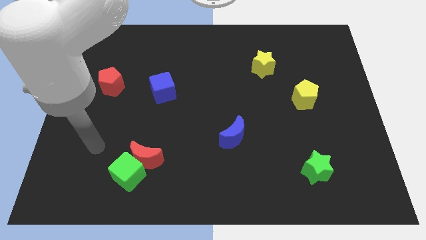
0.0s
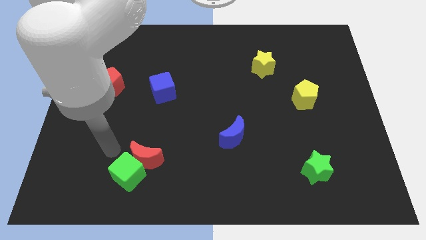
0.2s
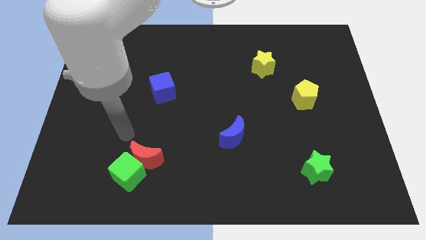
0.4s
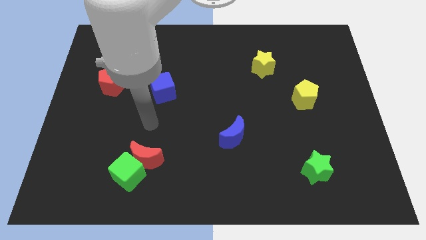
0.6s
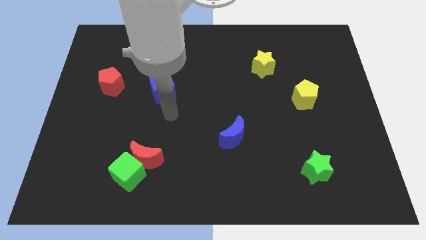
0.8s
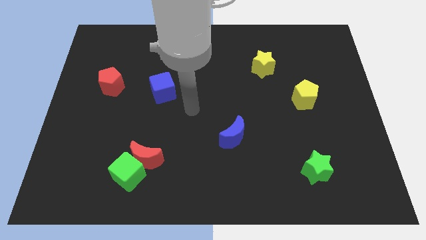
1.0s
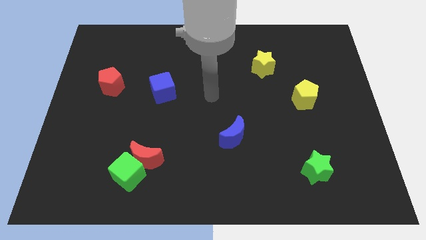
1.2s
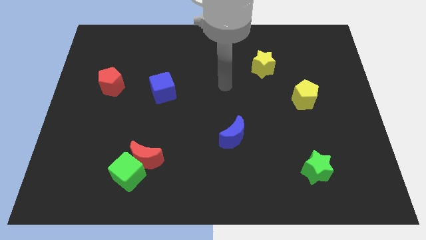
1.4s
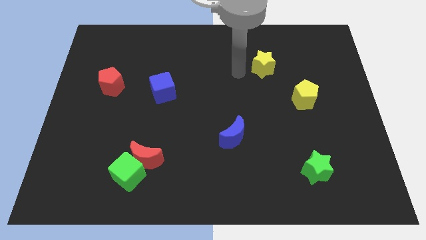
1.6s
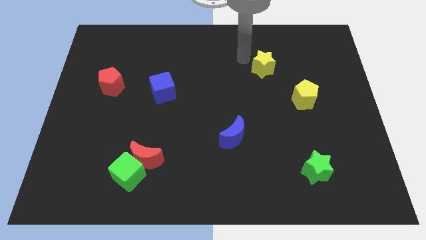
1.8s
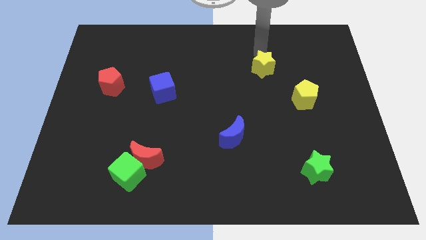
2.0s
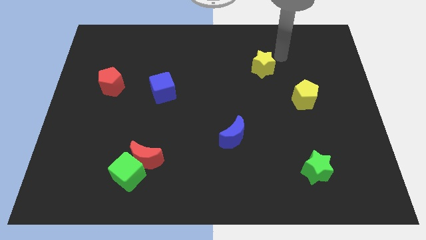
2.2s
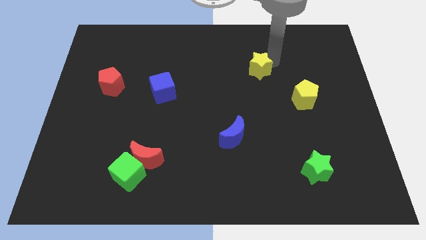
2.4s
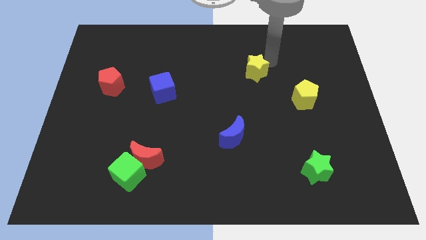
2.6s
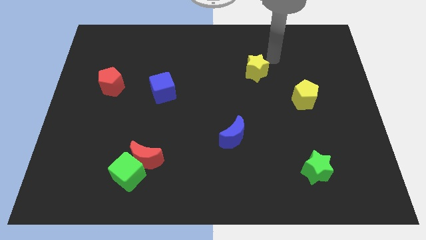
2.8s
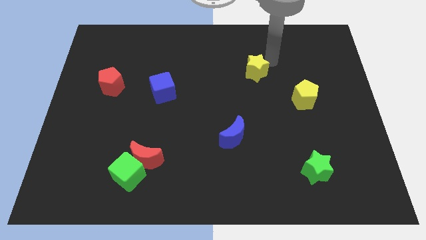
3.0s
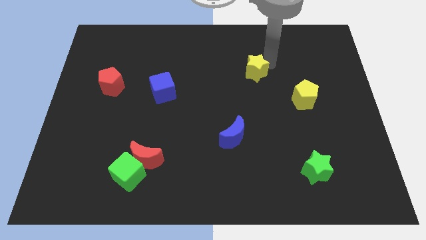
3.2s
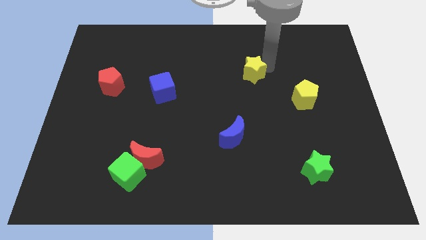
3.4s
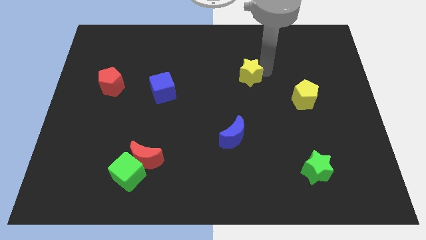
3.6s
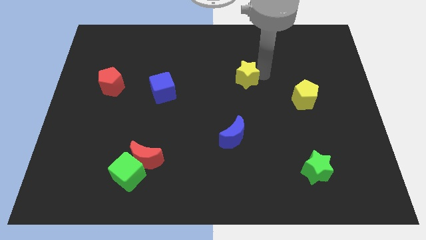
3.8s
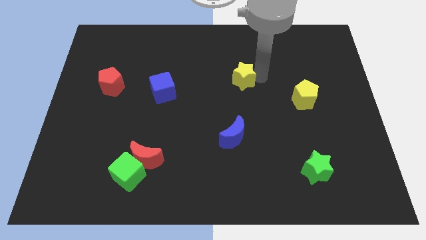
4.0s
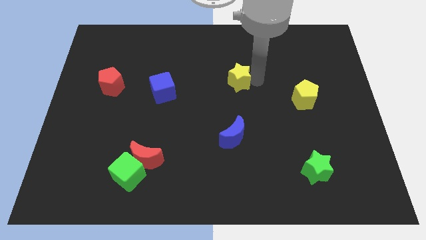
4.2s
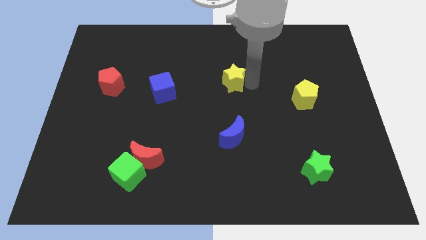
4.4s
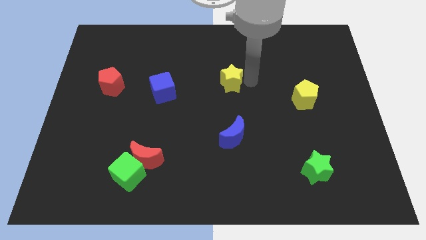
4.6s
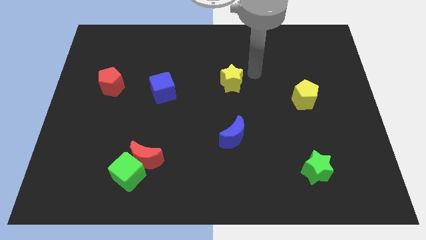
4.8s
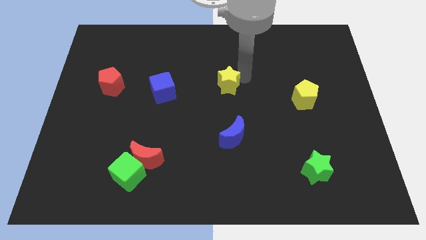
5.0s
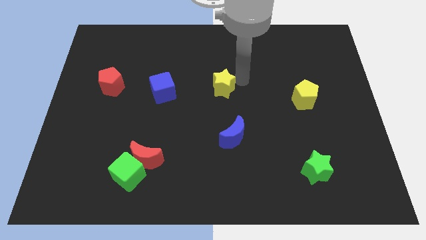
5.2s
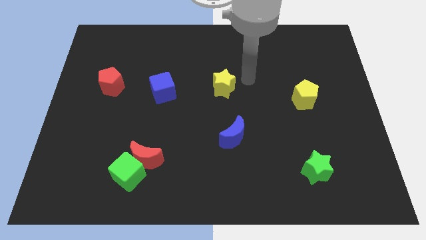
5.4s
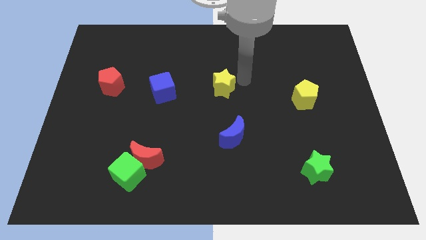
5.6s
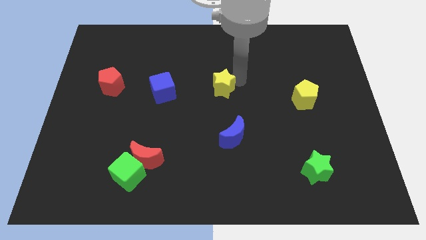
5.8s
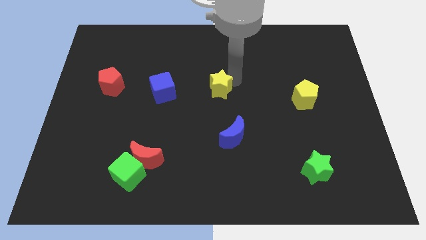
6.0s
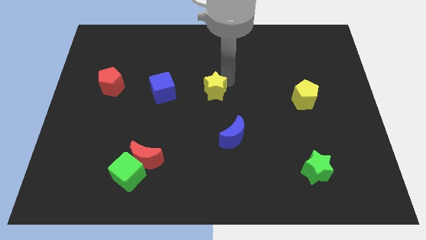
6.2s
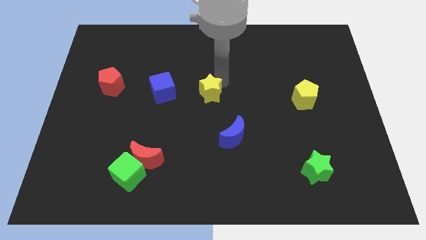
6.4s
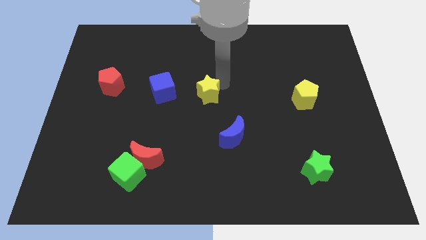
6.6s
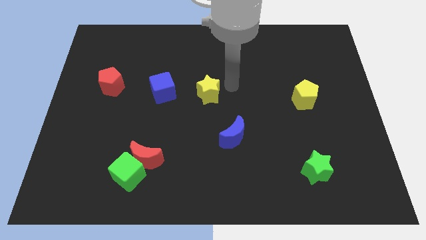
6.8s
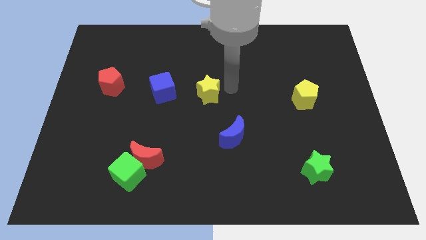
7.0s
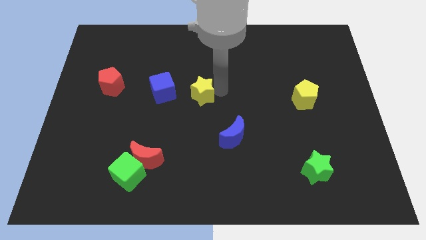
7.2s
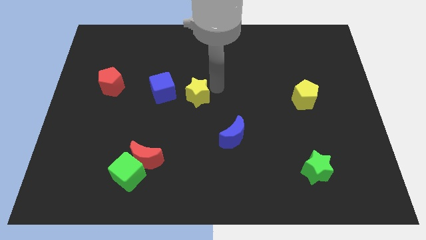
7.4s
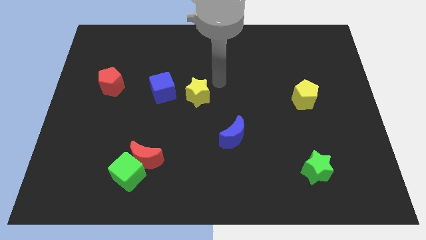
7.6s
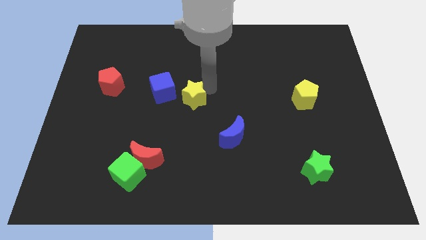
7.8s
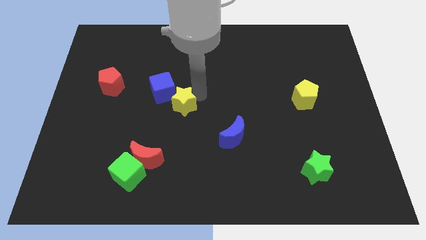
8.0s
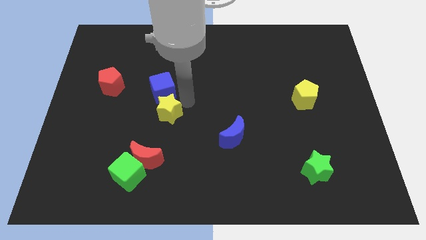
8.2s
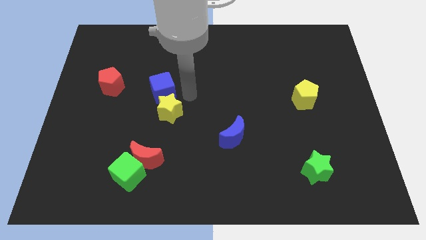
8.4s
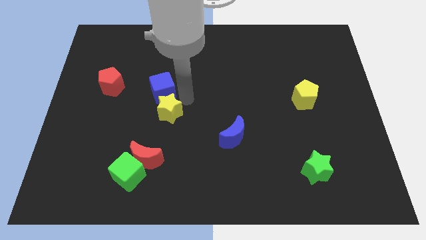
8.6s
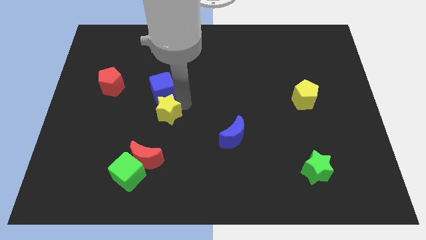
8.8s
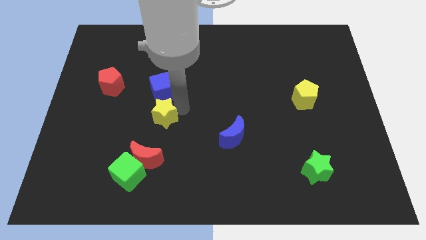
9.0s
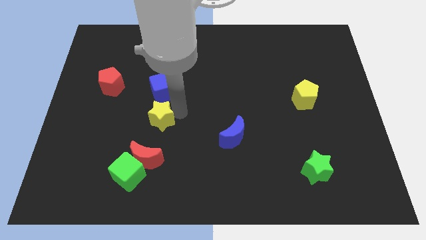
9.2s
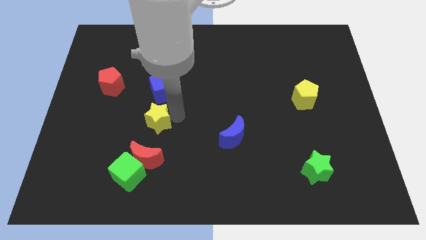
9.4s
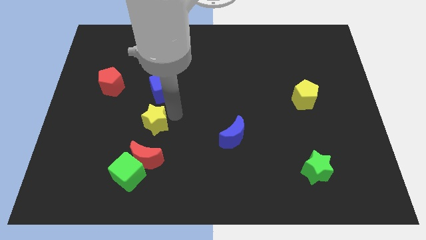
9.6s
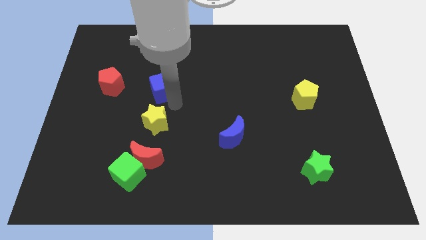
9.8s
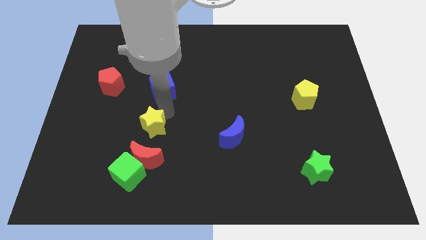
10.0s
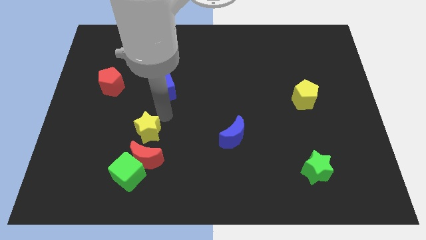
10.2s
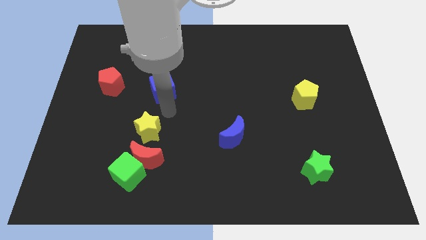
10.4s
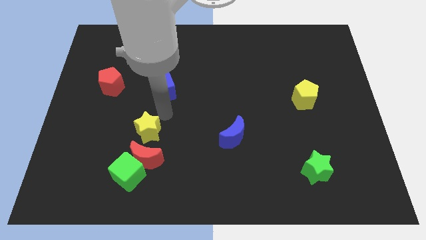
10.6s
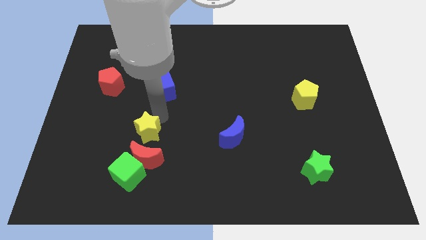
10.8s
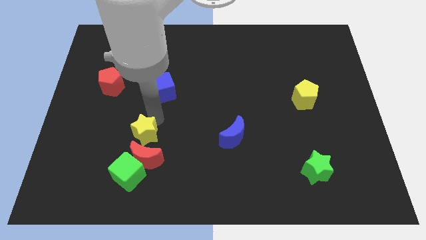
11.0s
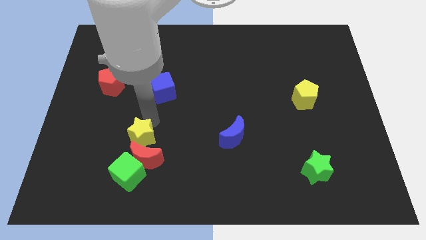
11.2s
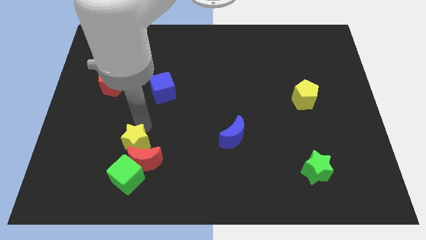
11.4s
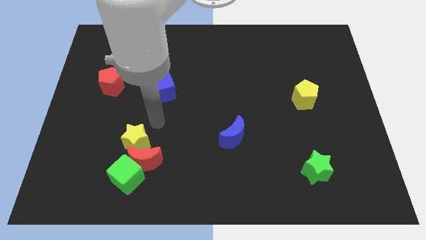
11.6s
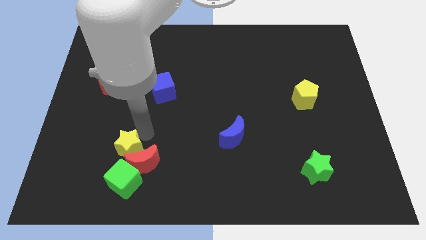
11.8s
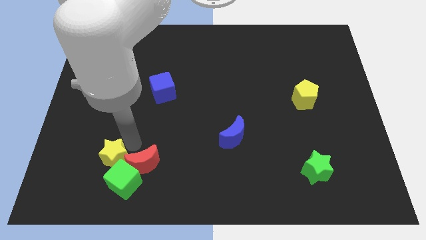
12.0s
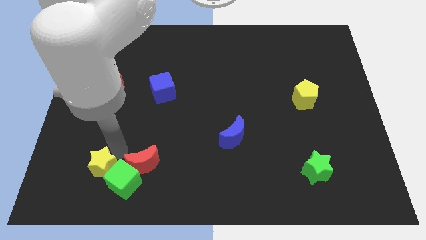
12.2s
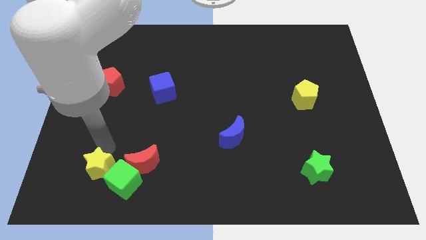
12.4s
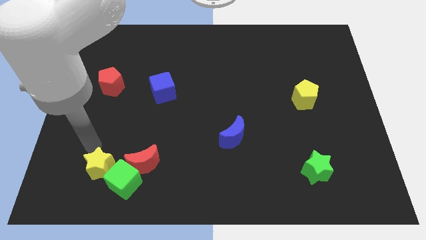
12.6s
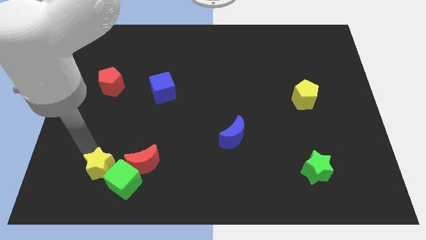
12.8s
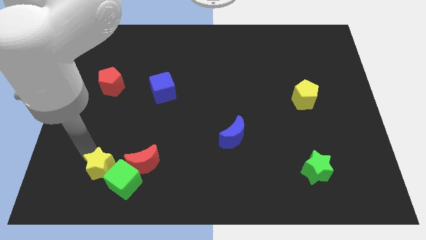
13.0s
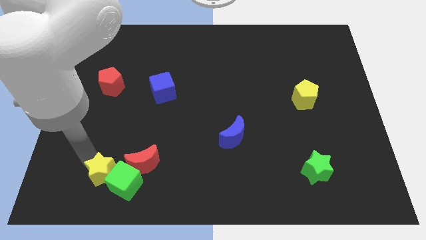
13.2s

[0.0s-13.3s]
push the yellow star to the bottom left of the red moon

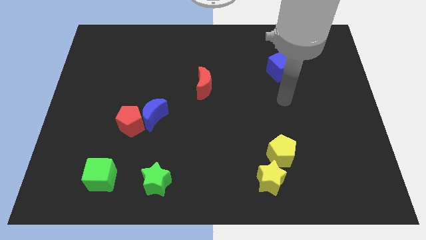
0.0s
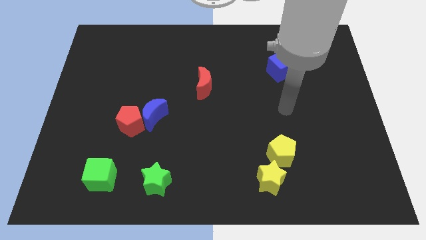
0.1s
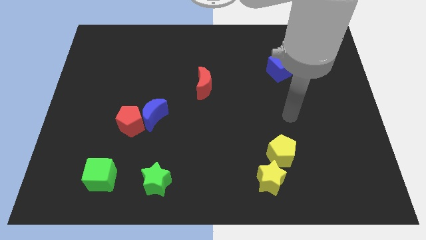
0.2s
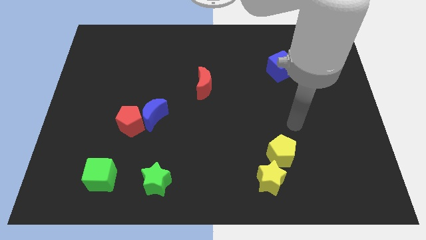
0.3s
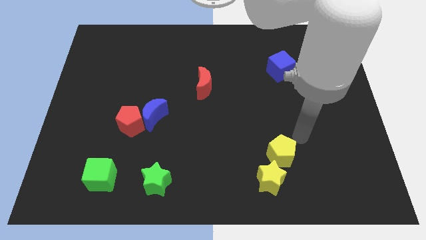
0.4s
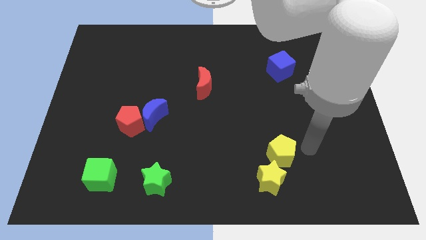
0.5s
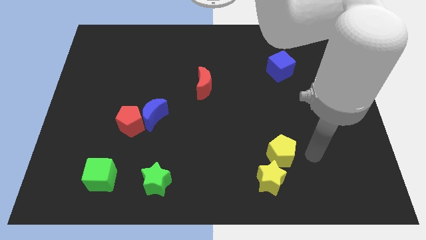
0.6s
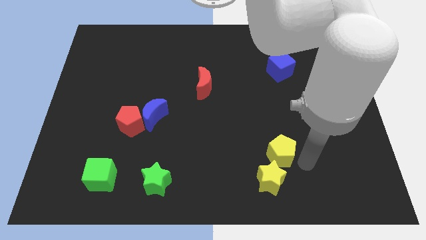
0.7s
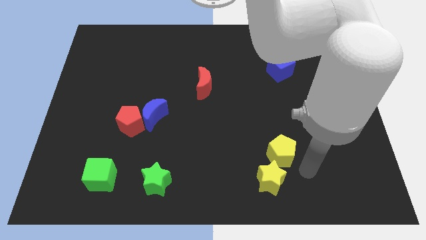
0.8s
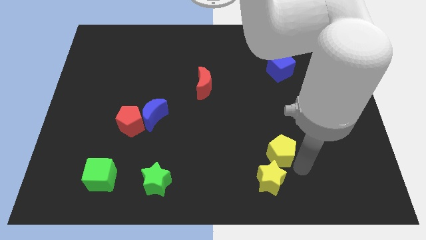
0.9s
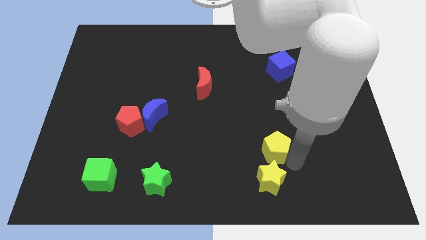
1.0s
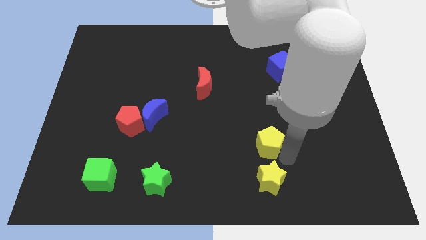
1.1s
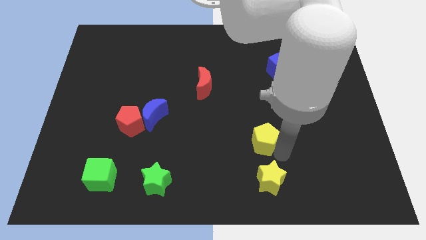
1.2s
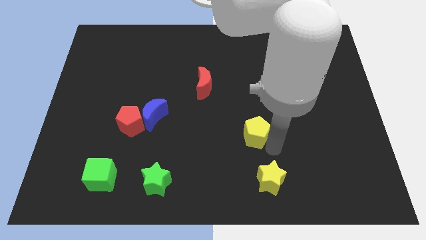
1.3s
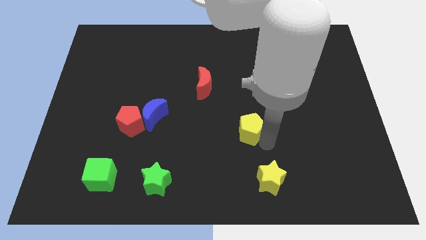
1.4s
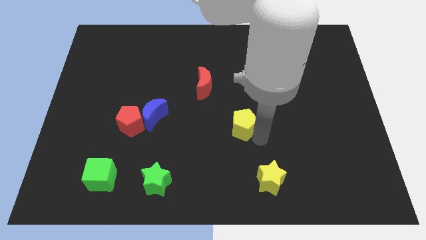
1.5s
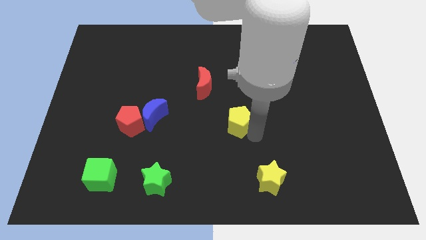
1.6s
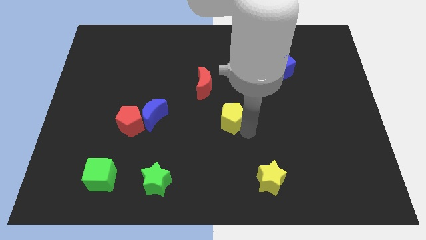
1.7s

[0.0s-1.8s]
slide the yellow pentagon to the bottom right side of the red moon
